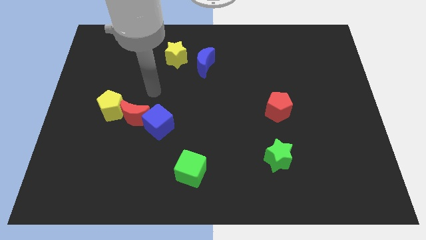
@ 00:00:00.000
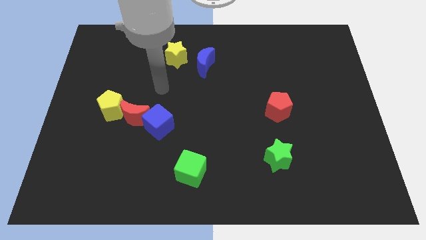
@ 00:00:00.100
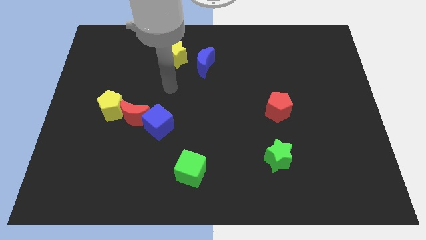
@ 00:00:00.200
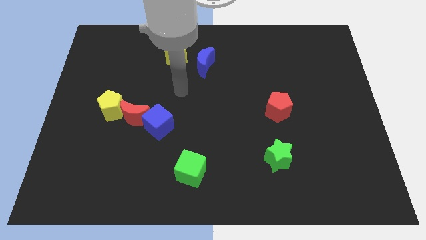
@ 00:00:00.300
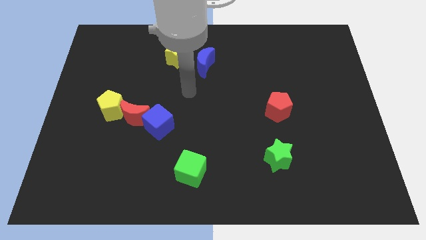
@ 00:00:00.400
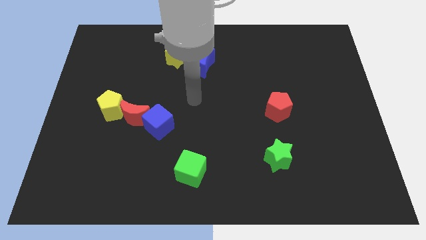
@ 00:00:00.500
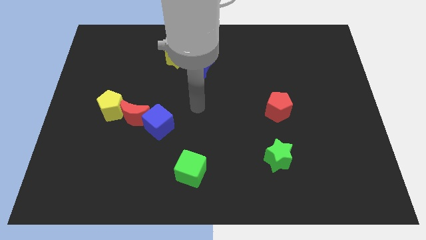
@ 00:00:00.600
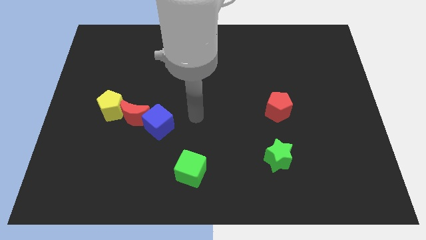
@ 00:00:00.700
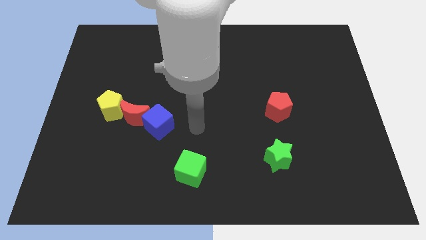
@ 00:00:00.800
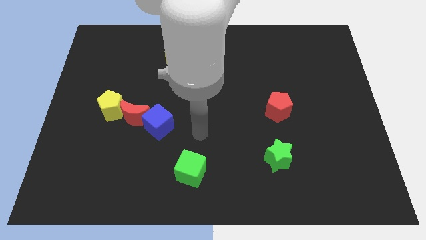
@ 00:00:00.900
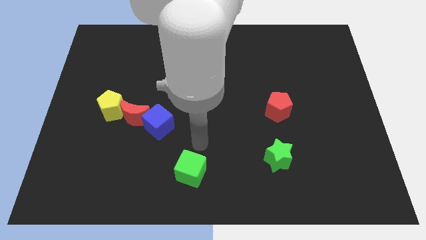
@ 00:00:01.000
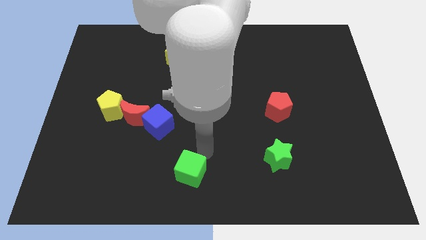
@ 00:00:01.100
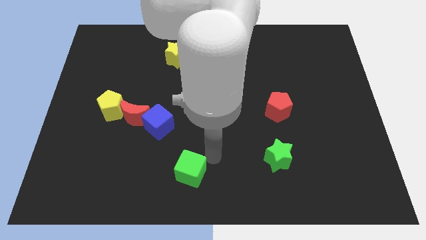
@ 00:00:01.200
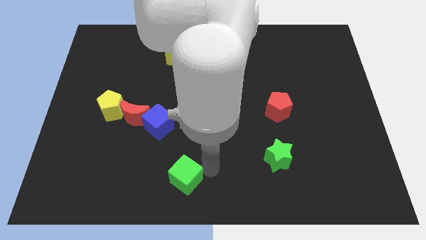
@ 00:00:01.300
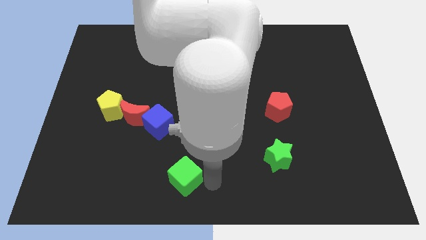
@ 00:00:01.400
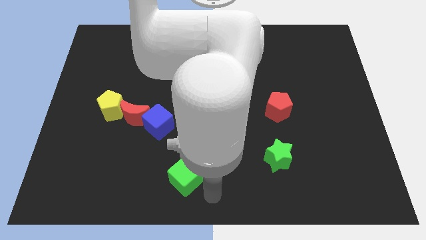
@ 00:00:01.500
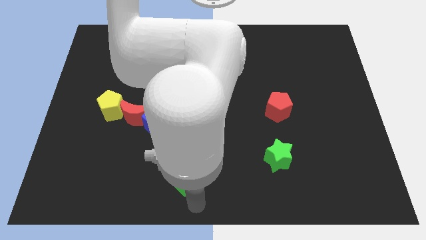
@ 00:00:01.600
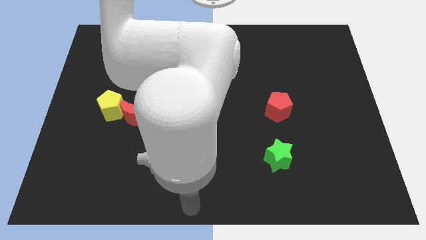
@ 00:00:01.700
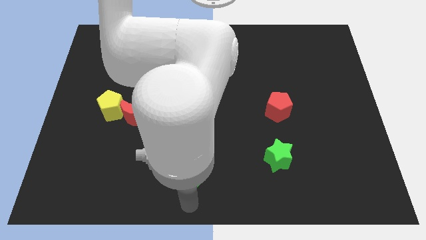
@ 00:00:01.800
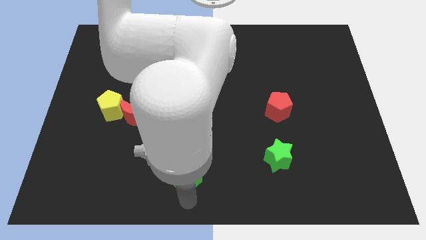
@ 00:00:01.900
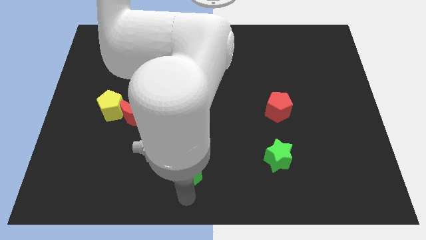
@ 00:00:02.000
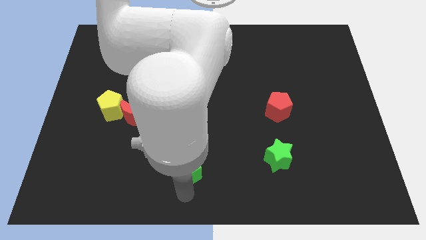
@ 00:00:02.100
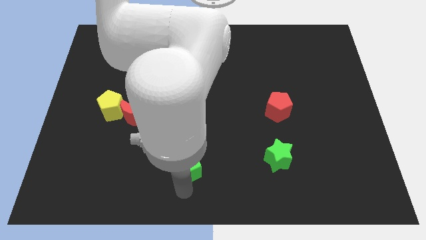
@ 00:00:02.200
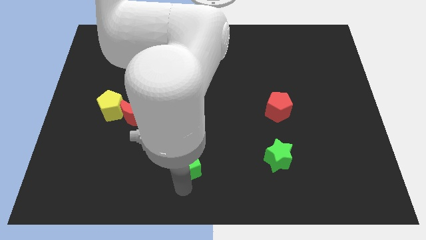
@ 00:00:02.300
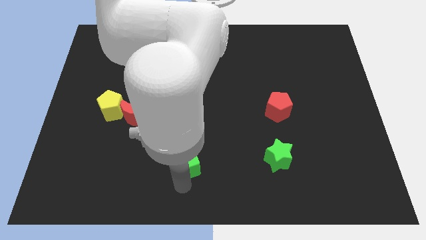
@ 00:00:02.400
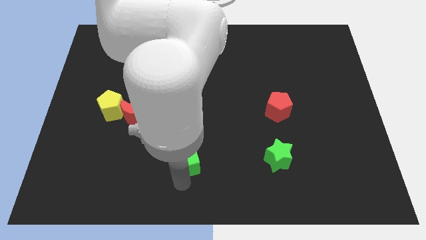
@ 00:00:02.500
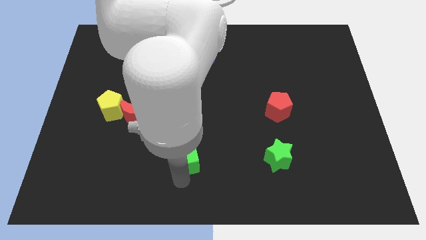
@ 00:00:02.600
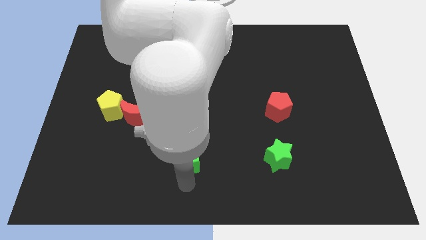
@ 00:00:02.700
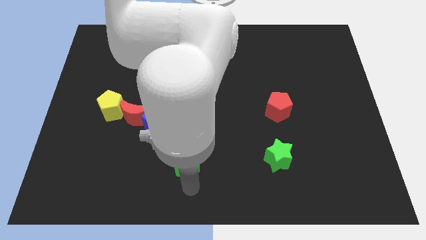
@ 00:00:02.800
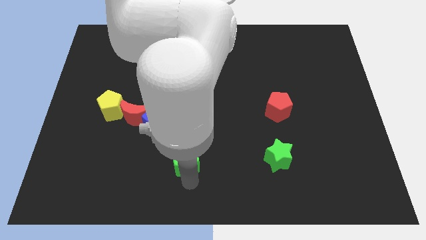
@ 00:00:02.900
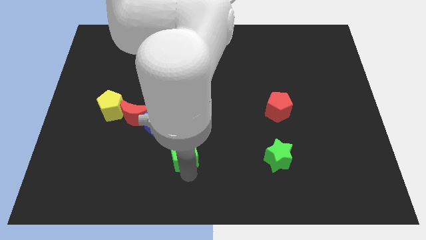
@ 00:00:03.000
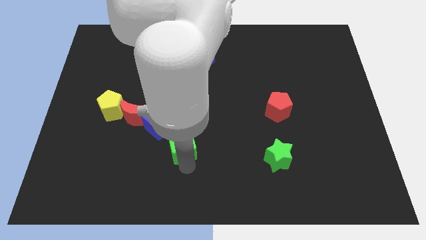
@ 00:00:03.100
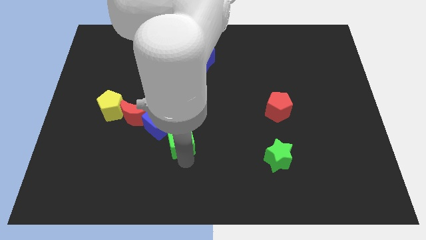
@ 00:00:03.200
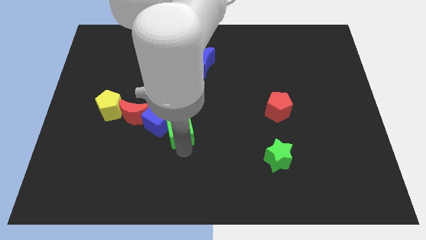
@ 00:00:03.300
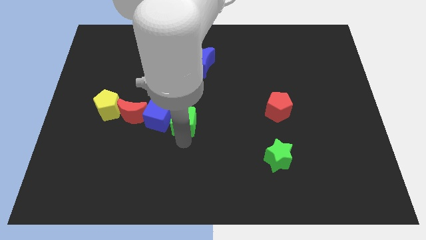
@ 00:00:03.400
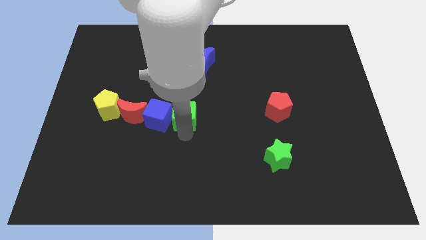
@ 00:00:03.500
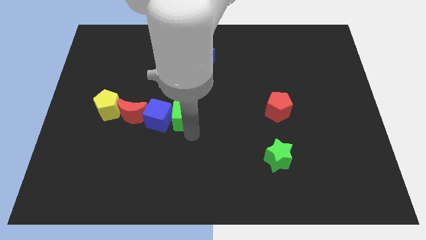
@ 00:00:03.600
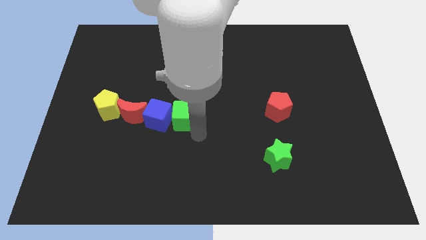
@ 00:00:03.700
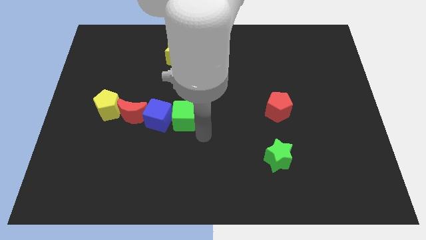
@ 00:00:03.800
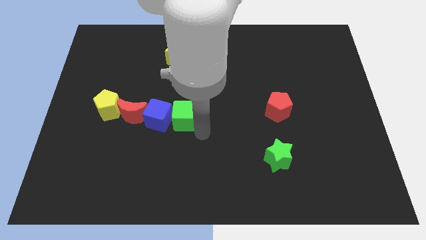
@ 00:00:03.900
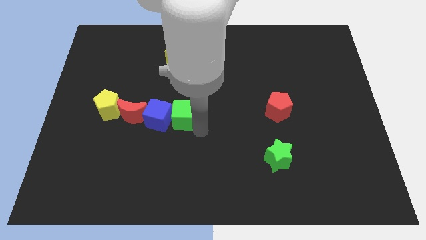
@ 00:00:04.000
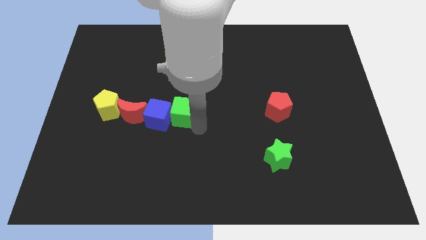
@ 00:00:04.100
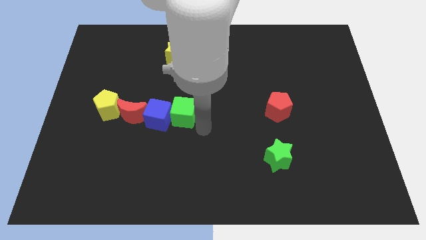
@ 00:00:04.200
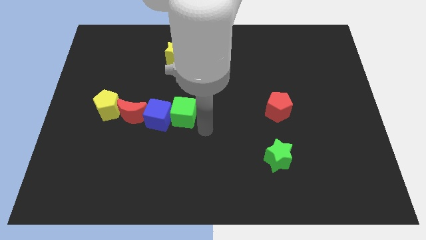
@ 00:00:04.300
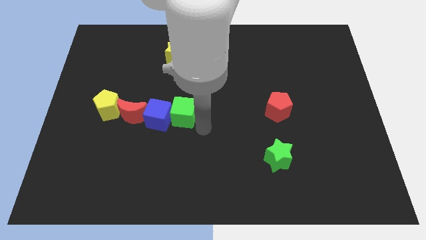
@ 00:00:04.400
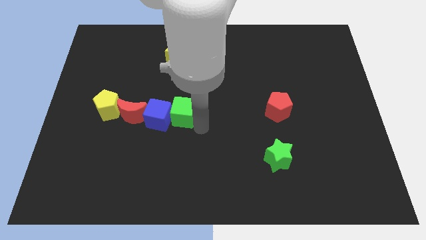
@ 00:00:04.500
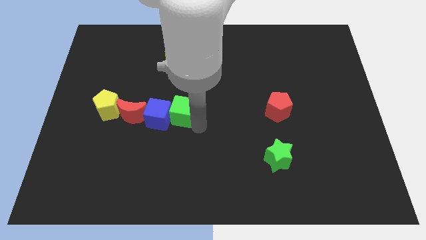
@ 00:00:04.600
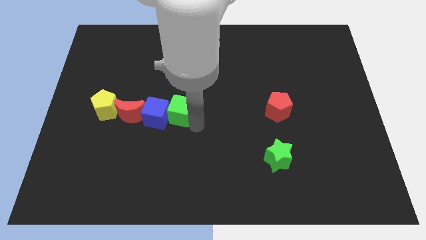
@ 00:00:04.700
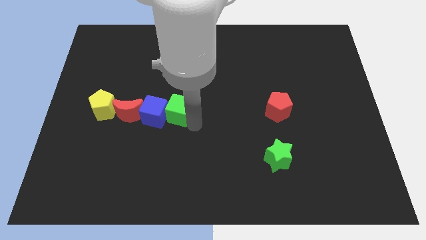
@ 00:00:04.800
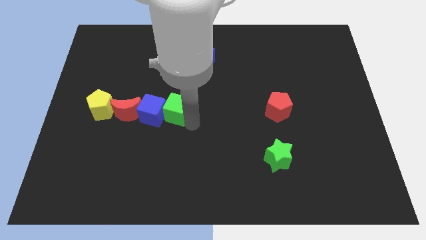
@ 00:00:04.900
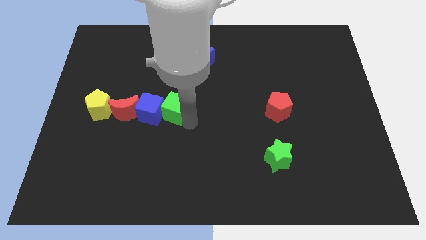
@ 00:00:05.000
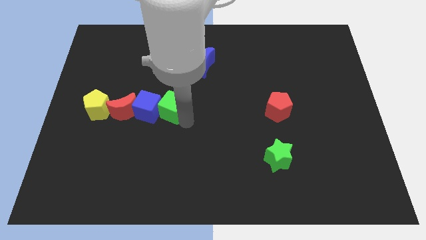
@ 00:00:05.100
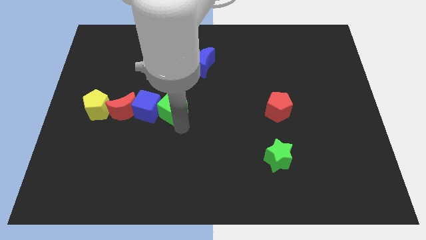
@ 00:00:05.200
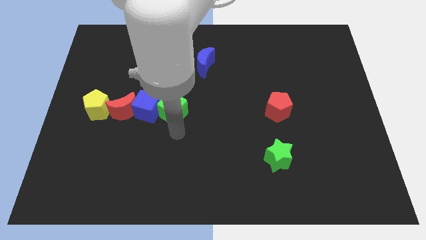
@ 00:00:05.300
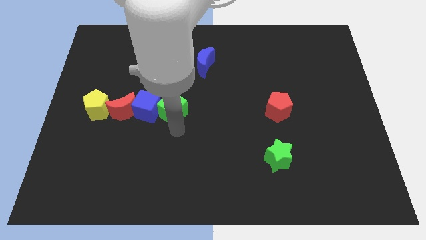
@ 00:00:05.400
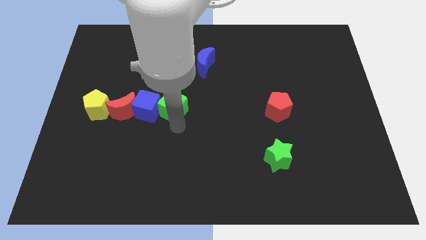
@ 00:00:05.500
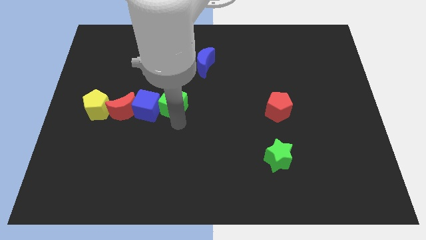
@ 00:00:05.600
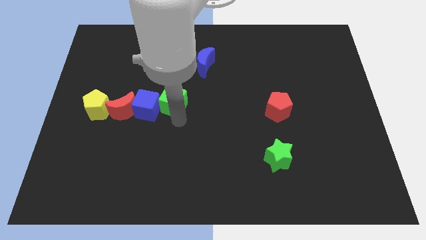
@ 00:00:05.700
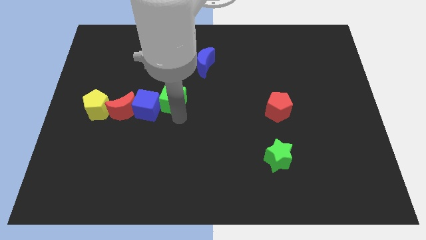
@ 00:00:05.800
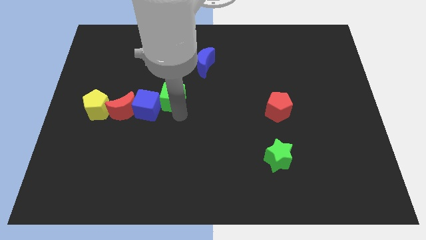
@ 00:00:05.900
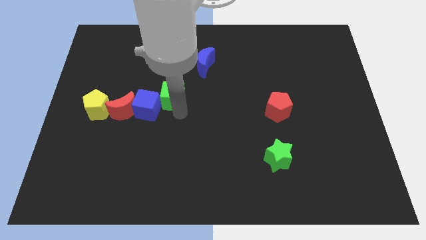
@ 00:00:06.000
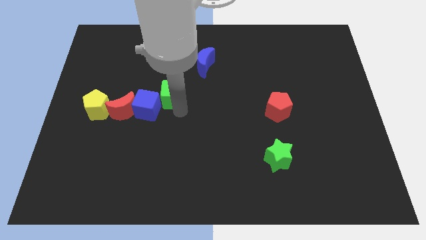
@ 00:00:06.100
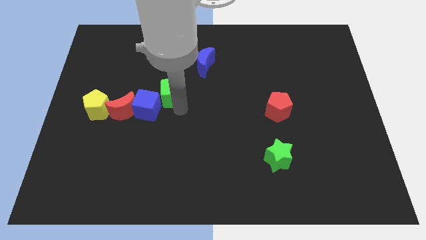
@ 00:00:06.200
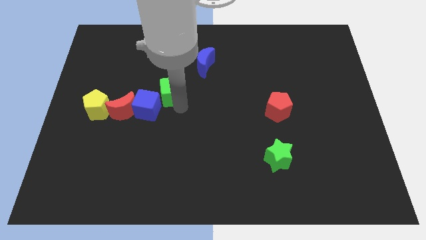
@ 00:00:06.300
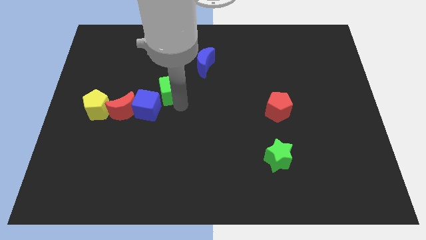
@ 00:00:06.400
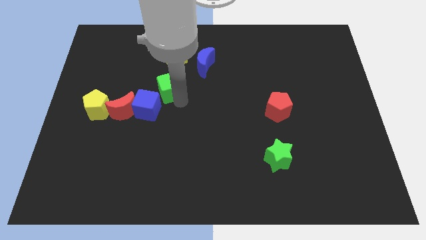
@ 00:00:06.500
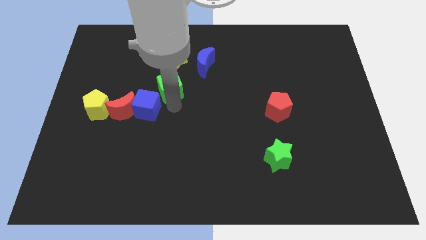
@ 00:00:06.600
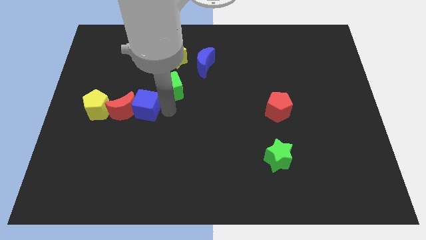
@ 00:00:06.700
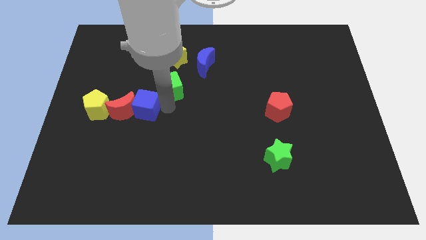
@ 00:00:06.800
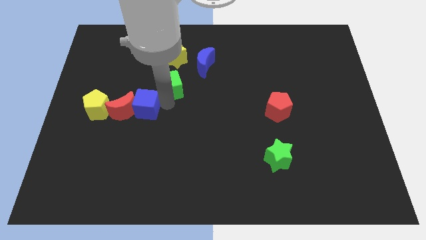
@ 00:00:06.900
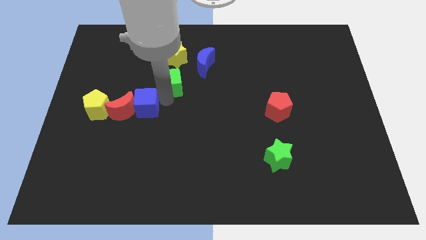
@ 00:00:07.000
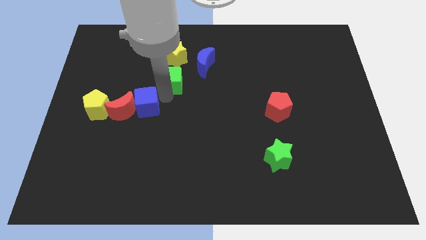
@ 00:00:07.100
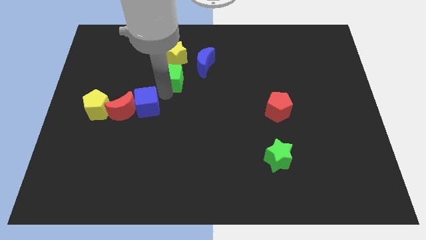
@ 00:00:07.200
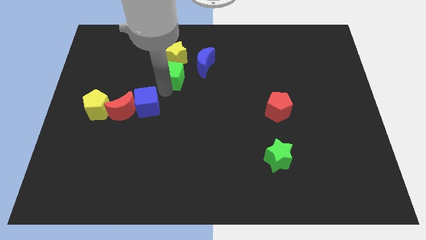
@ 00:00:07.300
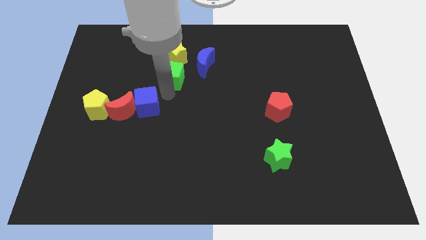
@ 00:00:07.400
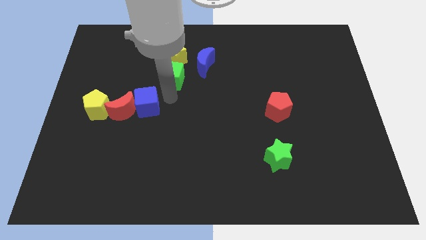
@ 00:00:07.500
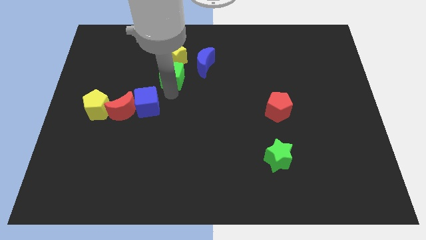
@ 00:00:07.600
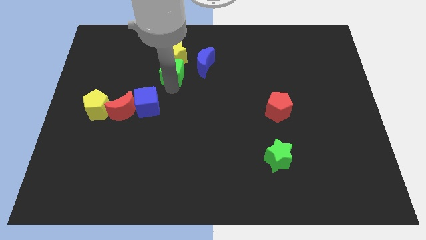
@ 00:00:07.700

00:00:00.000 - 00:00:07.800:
put the green cube next to the yellow star
